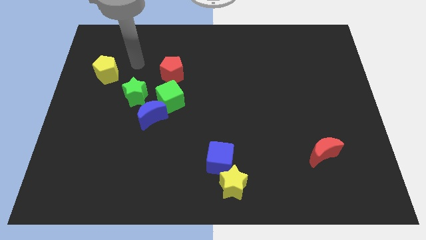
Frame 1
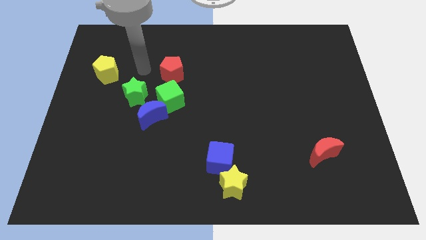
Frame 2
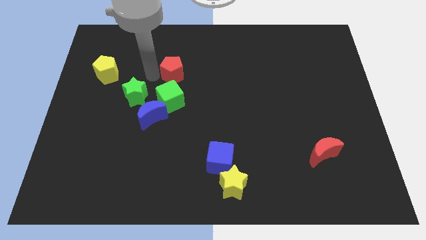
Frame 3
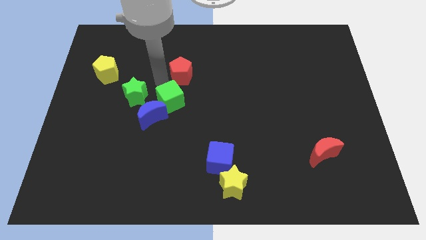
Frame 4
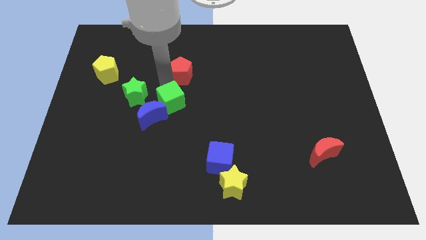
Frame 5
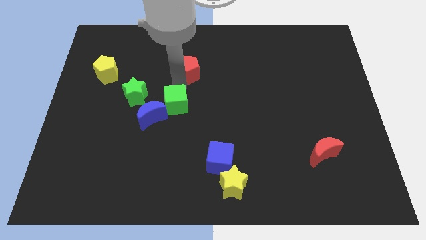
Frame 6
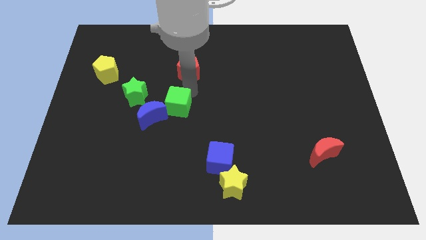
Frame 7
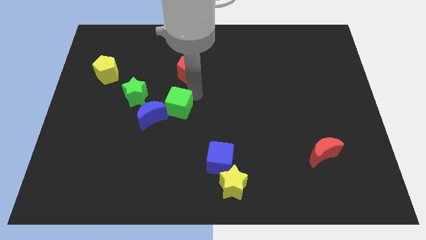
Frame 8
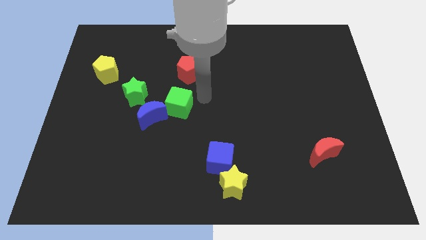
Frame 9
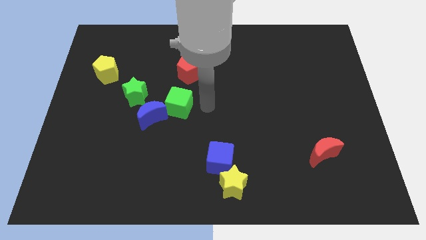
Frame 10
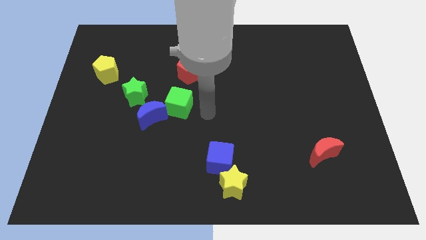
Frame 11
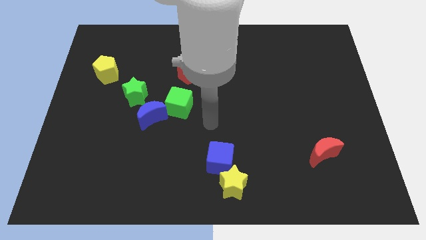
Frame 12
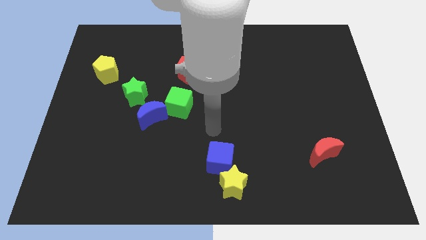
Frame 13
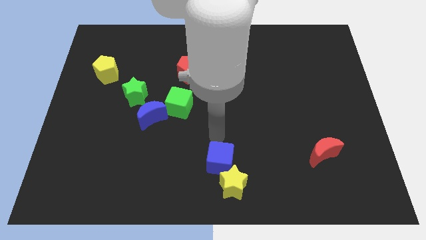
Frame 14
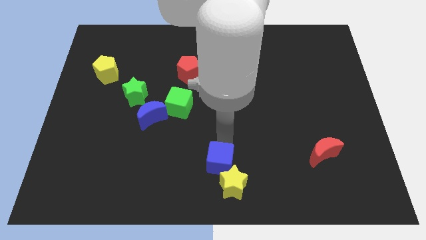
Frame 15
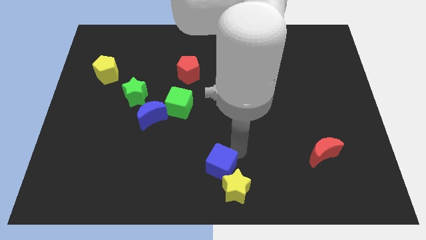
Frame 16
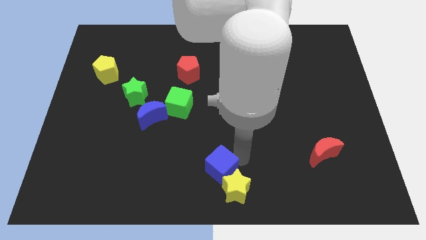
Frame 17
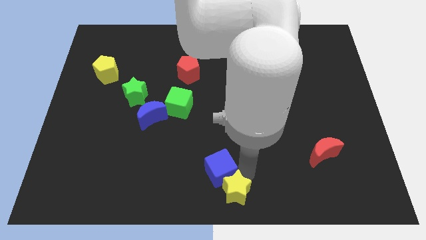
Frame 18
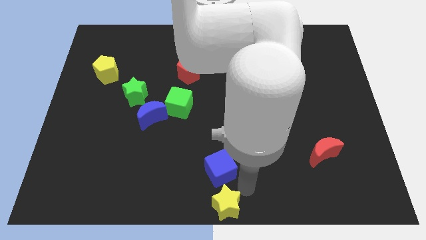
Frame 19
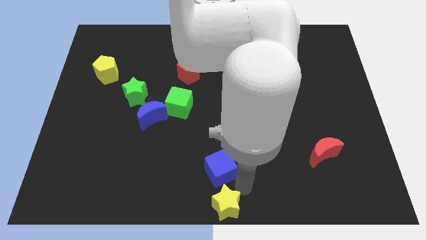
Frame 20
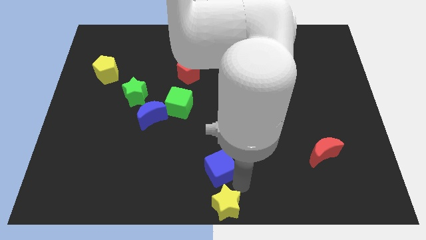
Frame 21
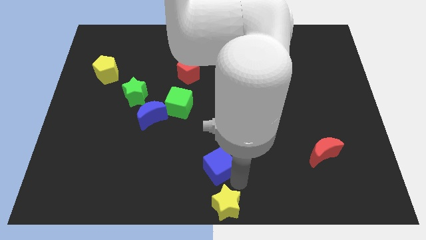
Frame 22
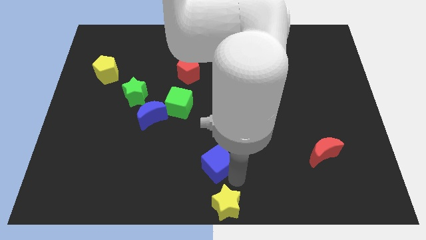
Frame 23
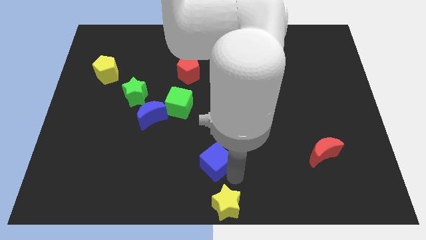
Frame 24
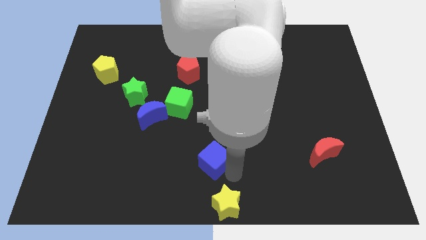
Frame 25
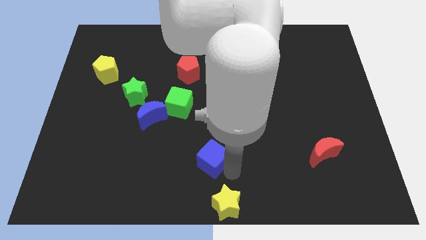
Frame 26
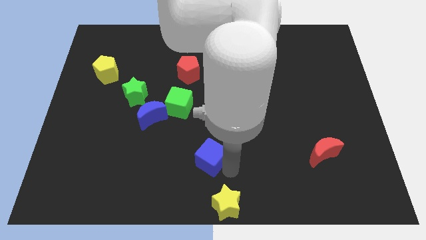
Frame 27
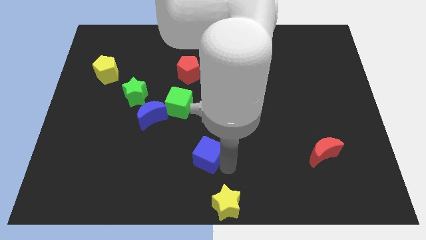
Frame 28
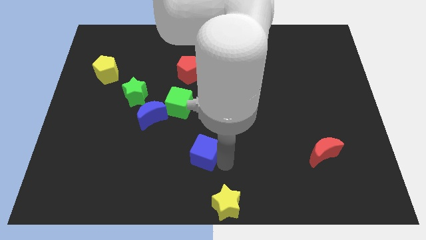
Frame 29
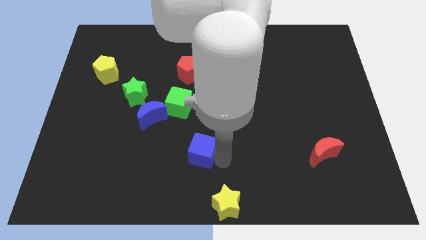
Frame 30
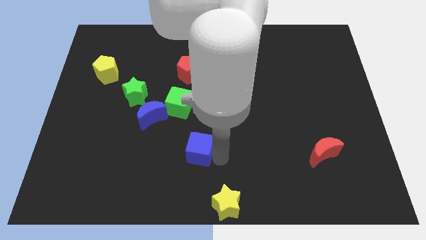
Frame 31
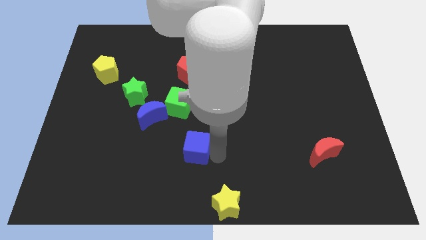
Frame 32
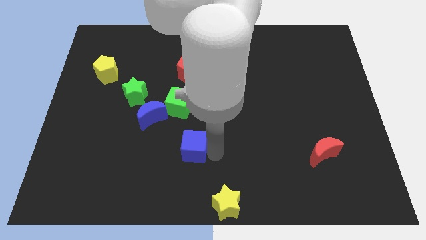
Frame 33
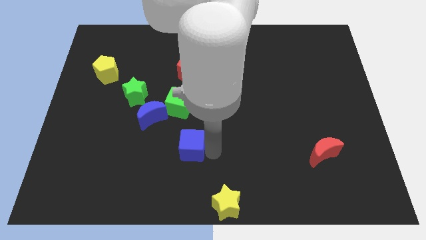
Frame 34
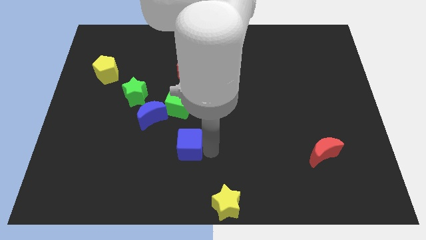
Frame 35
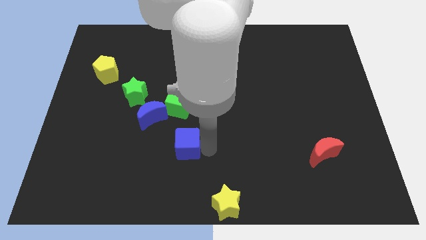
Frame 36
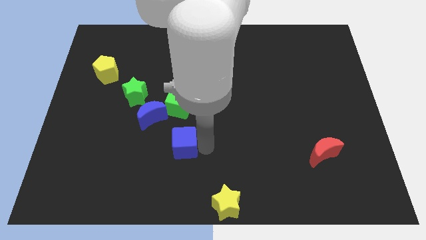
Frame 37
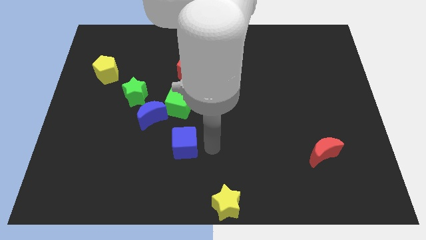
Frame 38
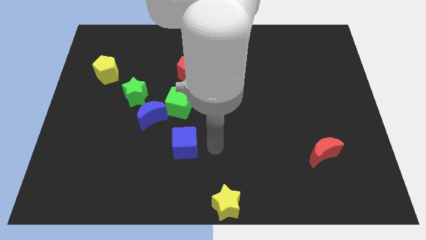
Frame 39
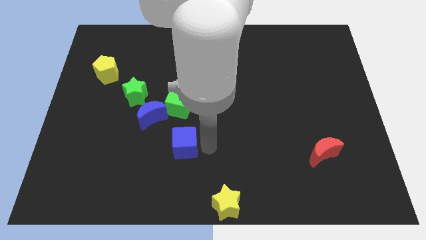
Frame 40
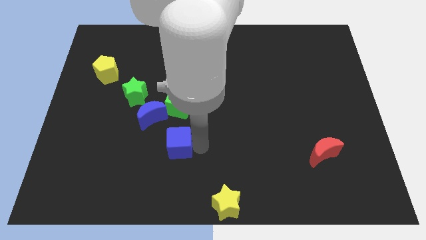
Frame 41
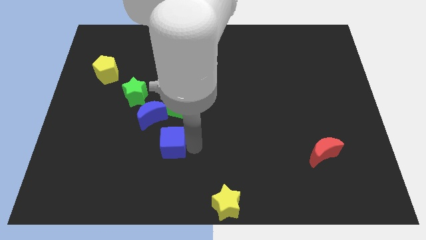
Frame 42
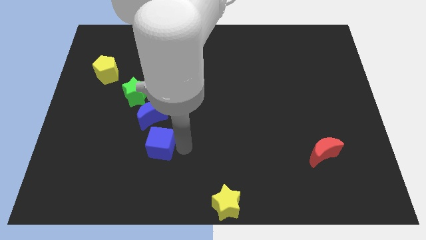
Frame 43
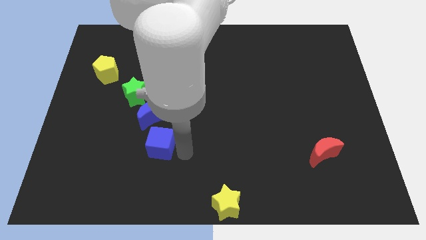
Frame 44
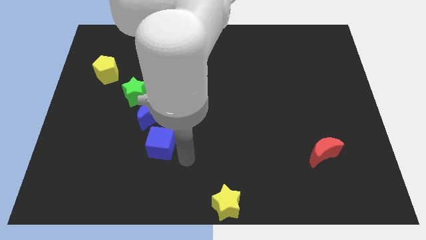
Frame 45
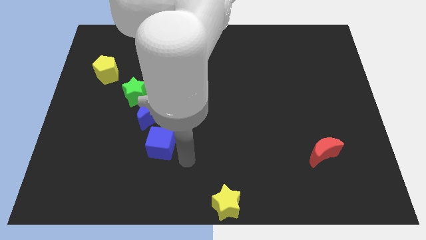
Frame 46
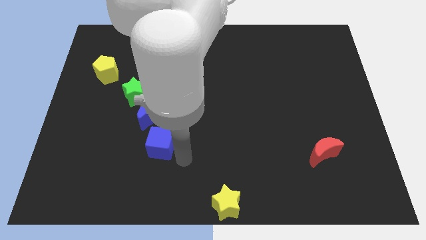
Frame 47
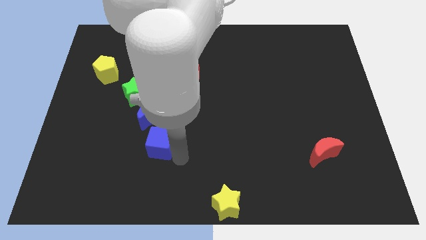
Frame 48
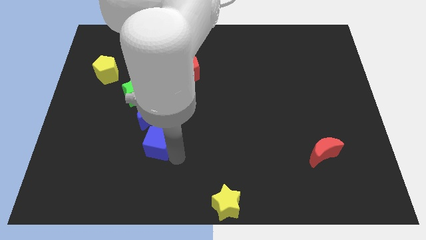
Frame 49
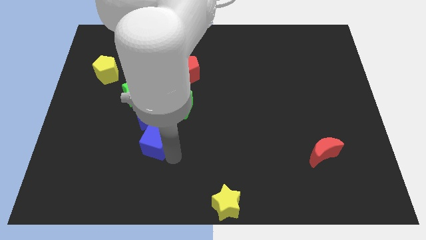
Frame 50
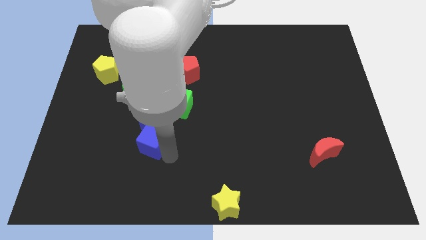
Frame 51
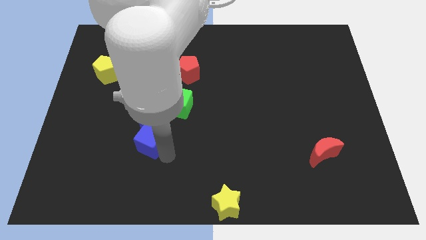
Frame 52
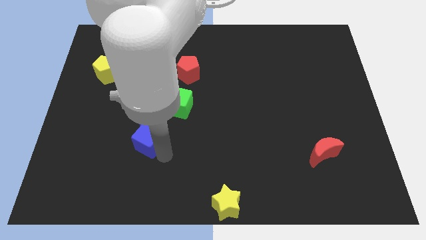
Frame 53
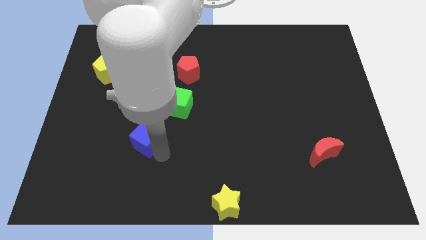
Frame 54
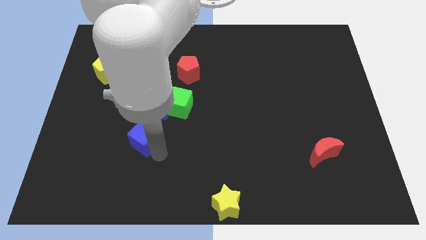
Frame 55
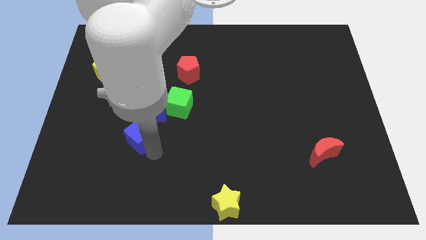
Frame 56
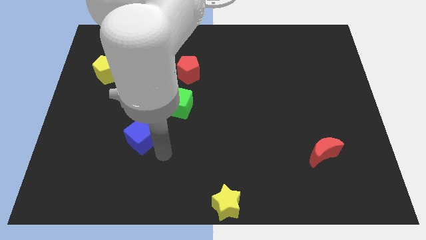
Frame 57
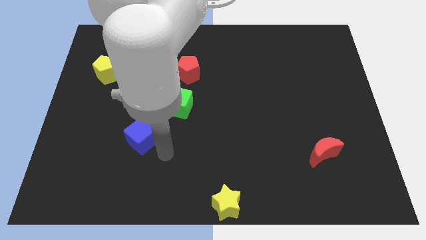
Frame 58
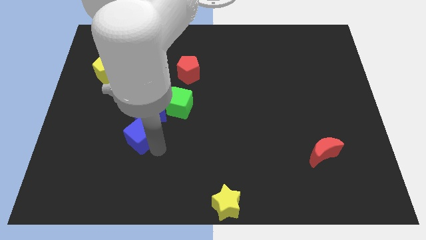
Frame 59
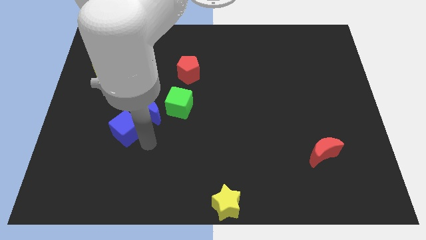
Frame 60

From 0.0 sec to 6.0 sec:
put the blue cube left of the blue moon

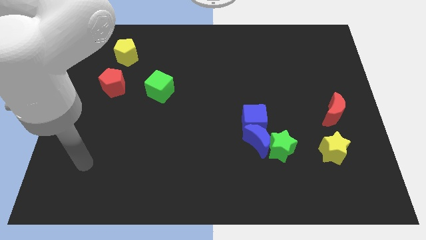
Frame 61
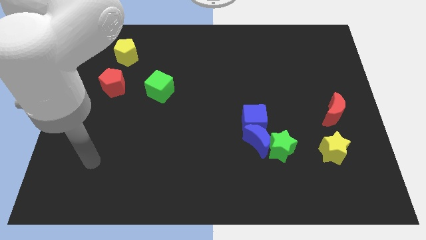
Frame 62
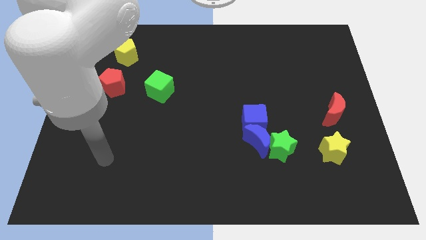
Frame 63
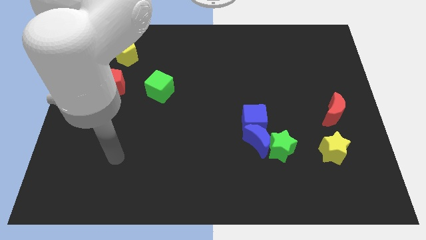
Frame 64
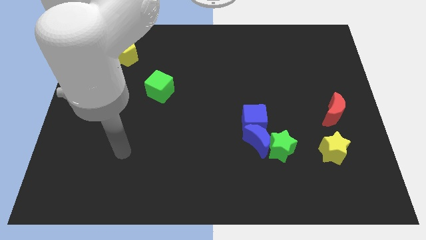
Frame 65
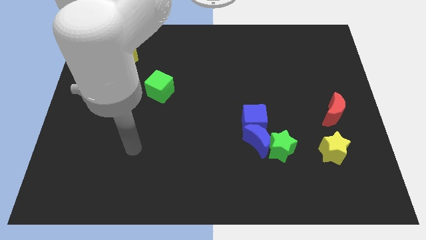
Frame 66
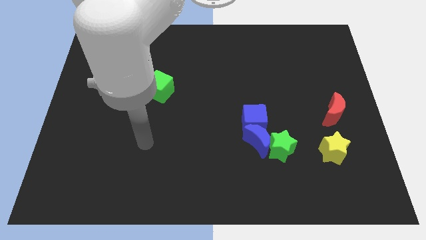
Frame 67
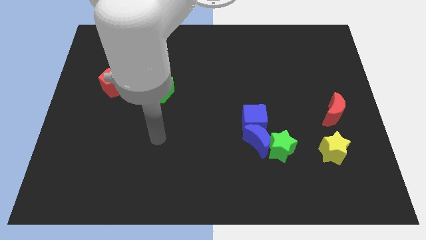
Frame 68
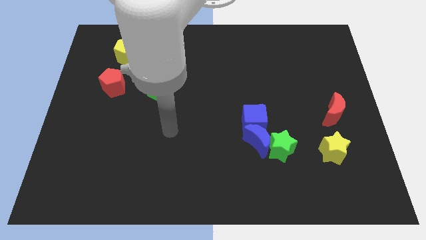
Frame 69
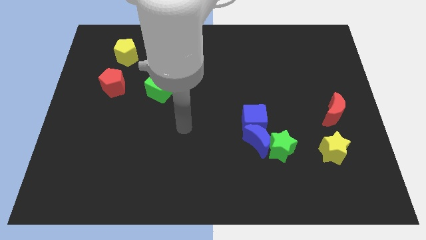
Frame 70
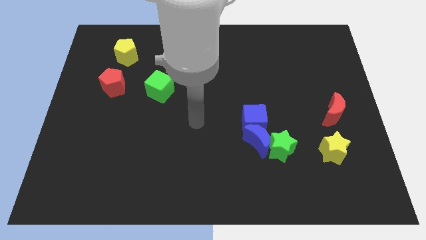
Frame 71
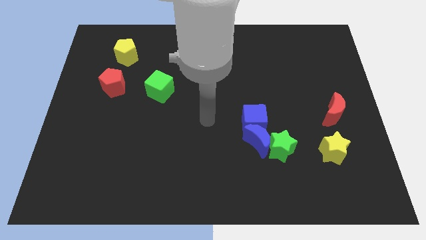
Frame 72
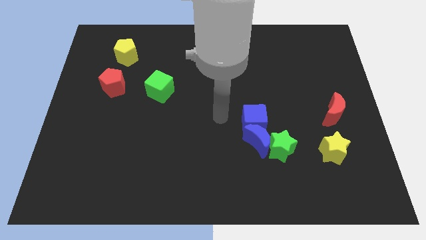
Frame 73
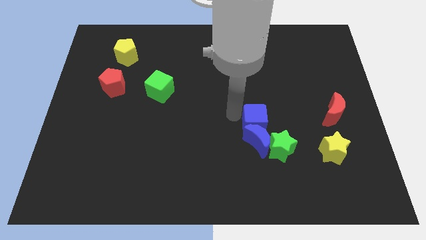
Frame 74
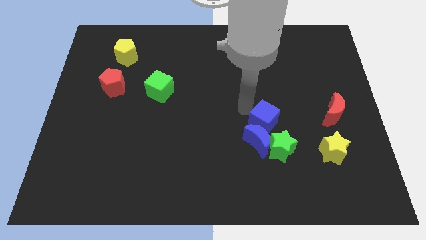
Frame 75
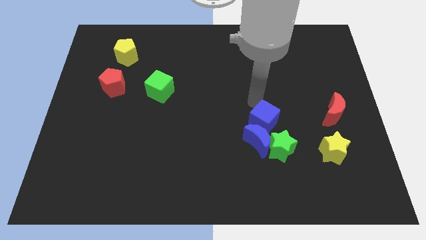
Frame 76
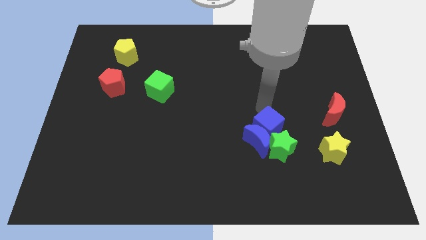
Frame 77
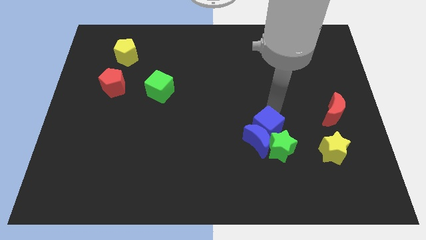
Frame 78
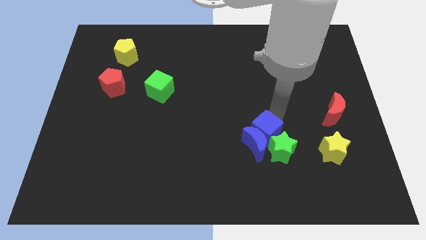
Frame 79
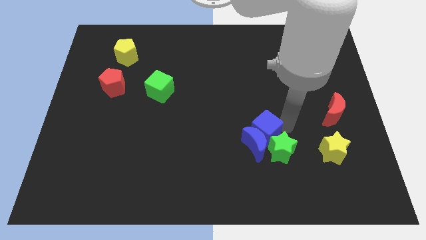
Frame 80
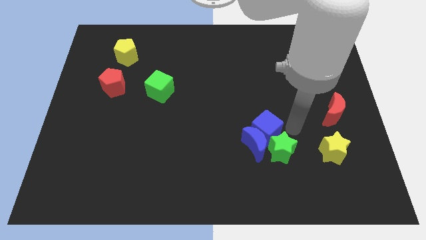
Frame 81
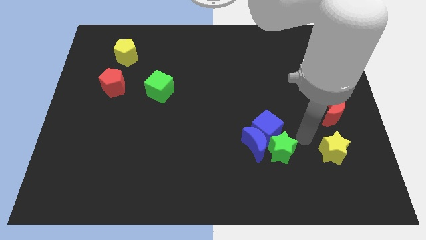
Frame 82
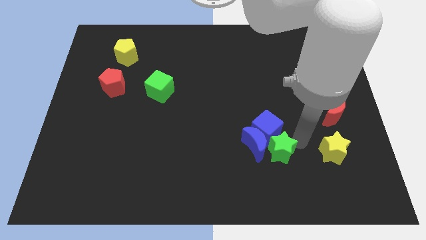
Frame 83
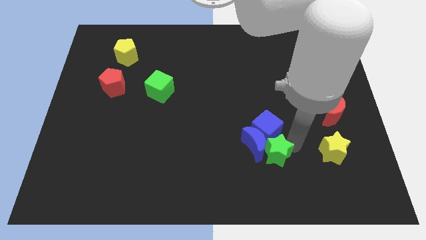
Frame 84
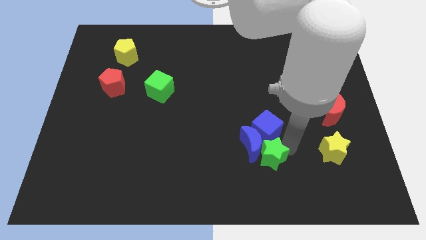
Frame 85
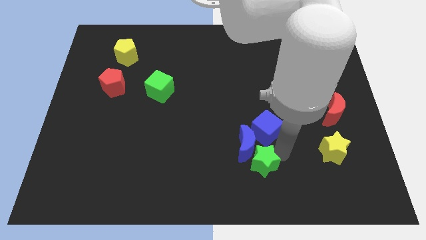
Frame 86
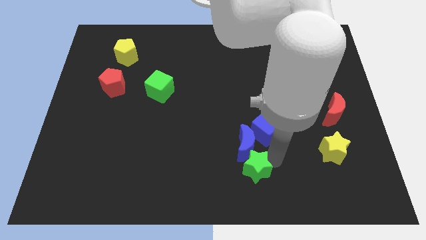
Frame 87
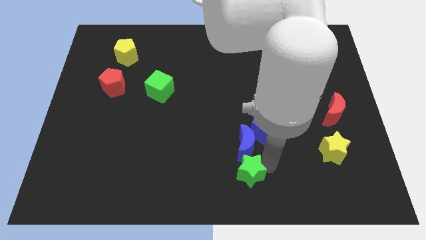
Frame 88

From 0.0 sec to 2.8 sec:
slide the green star to the bottom left of the blue moon
